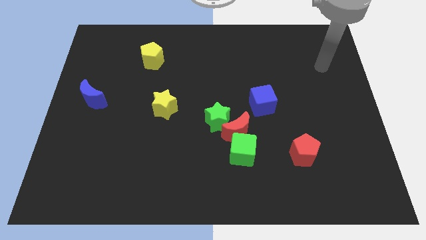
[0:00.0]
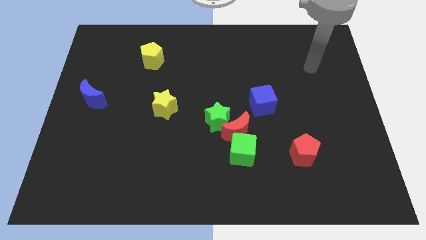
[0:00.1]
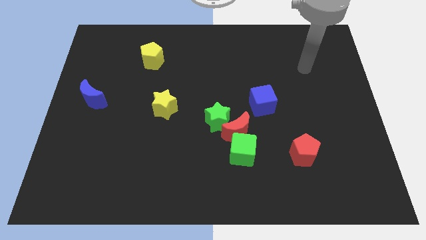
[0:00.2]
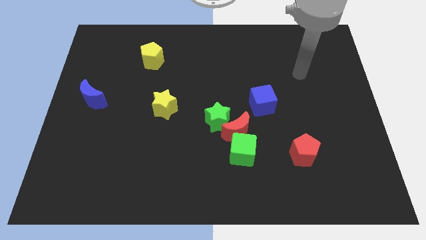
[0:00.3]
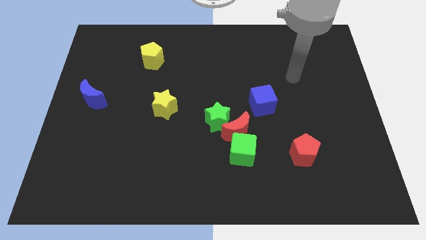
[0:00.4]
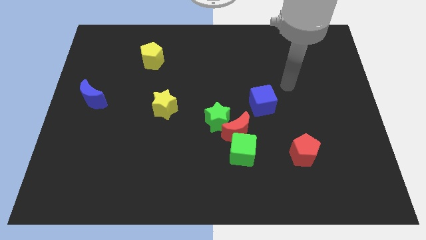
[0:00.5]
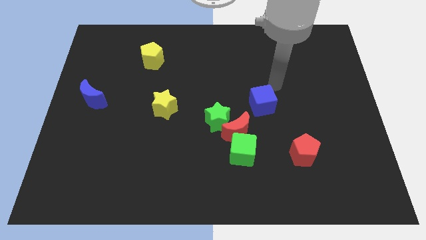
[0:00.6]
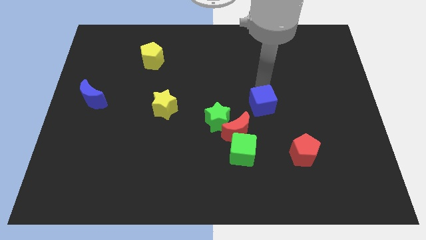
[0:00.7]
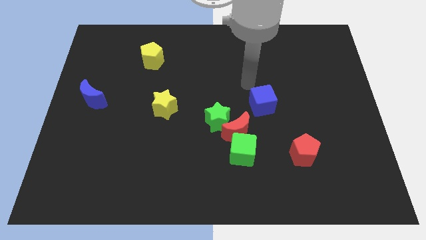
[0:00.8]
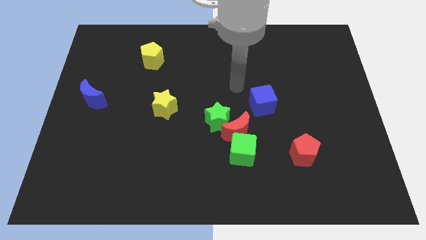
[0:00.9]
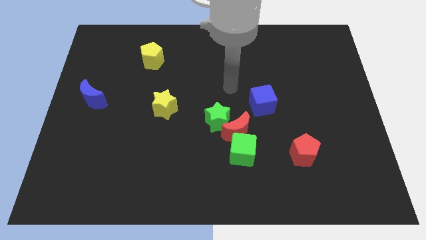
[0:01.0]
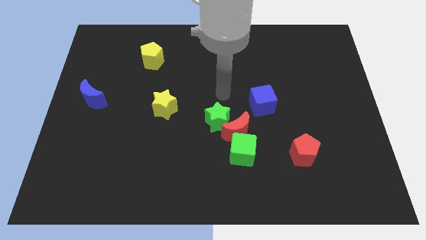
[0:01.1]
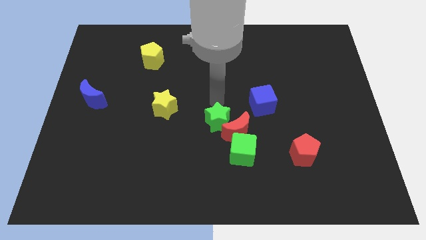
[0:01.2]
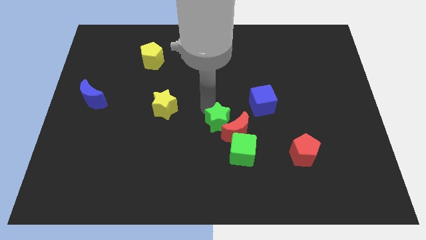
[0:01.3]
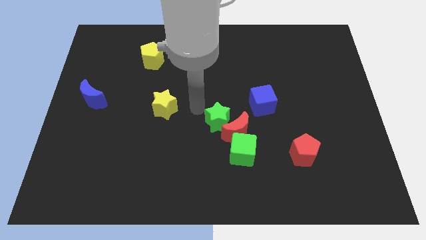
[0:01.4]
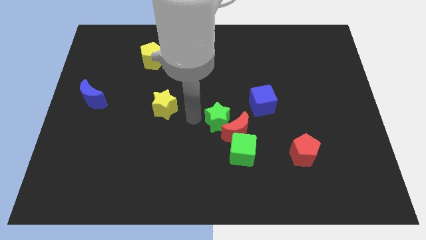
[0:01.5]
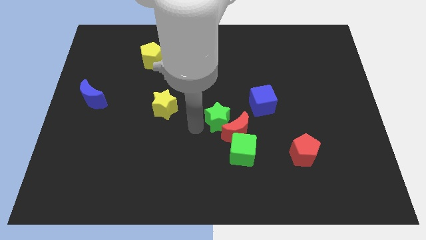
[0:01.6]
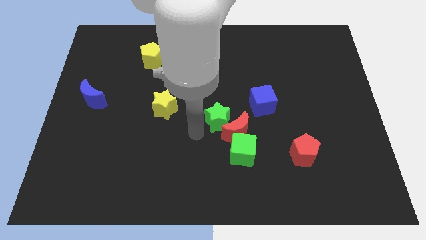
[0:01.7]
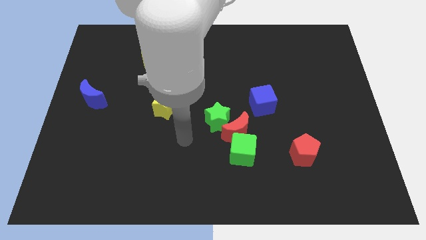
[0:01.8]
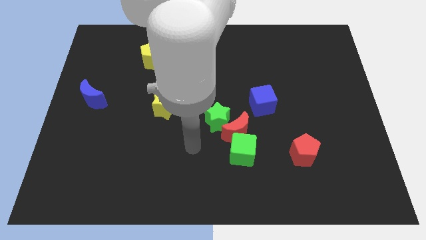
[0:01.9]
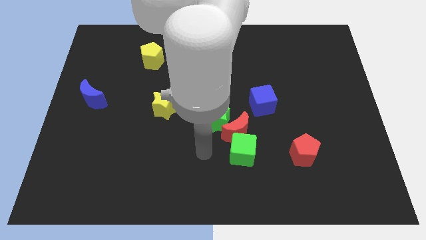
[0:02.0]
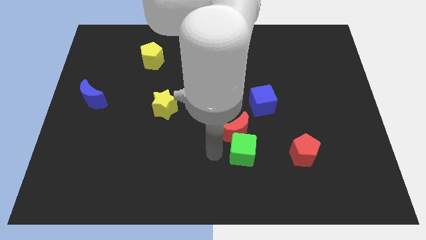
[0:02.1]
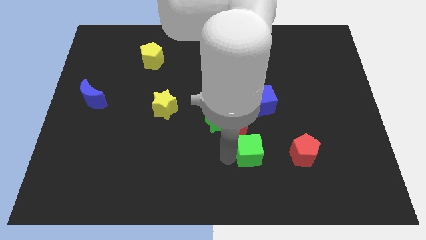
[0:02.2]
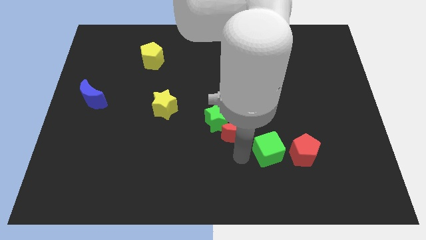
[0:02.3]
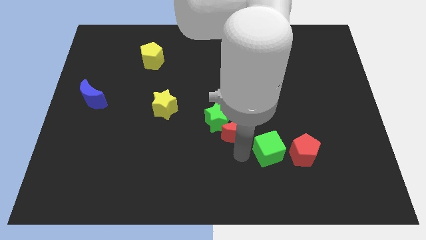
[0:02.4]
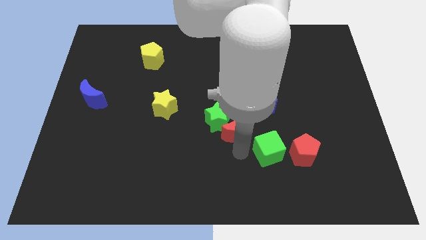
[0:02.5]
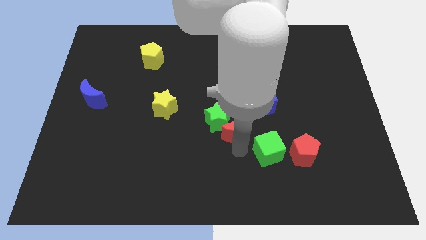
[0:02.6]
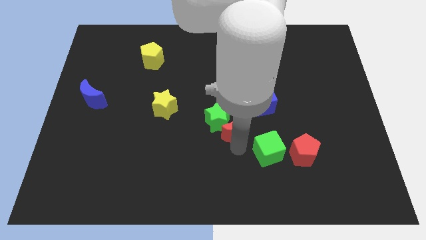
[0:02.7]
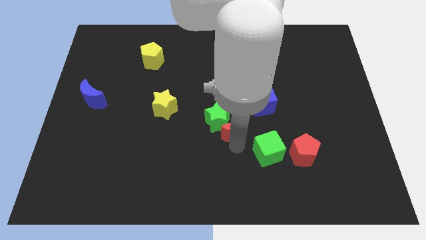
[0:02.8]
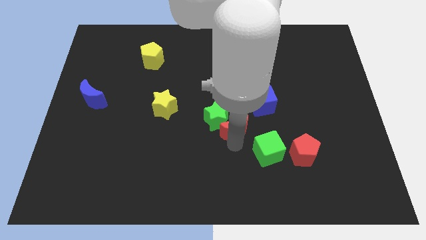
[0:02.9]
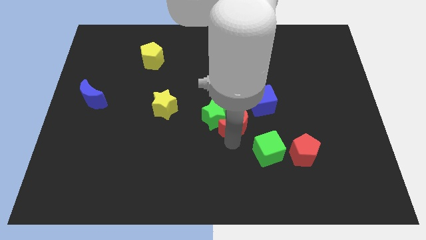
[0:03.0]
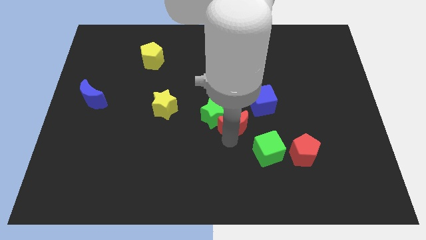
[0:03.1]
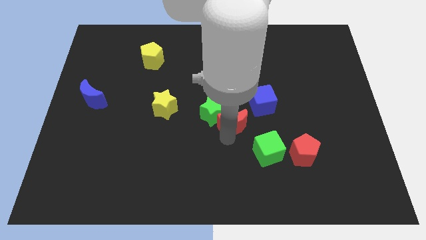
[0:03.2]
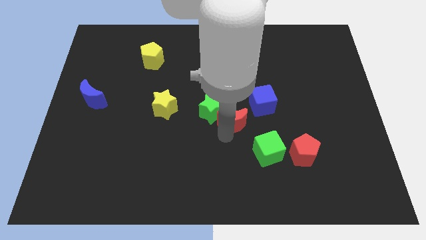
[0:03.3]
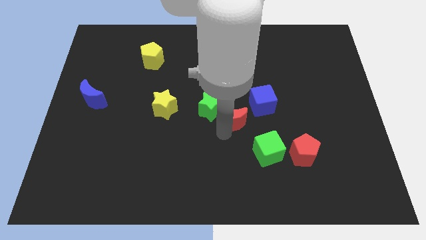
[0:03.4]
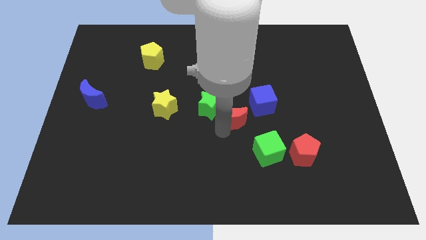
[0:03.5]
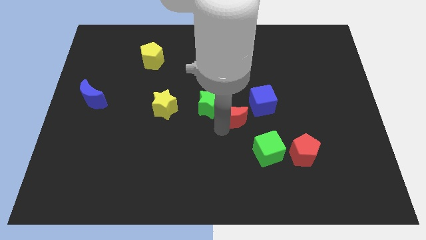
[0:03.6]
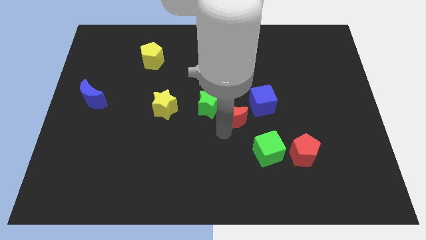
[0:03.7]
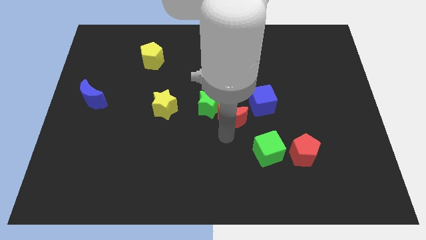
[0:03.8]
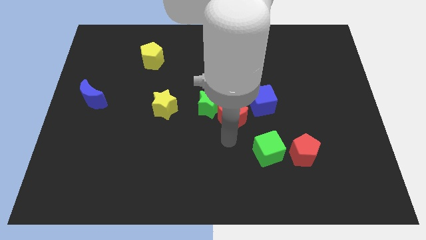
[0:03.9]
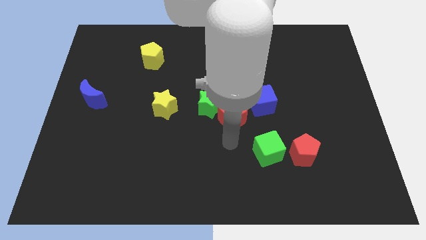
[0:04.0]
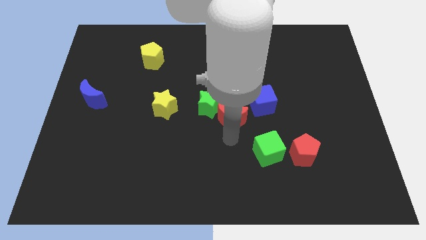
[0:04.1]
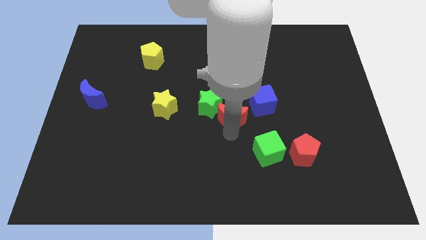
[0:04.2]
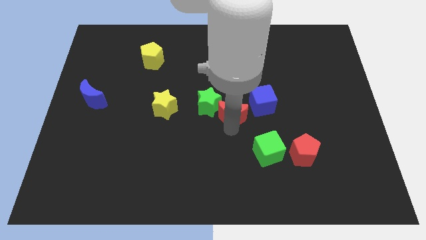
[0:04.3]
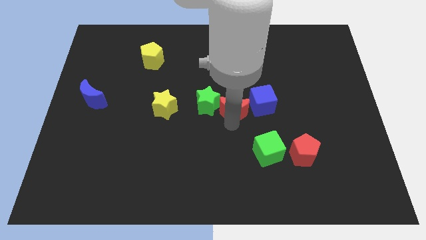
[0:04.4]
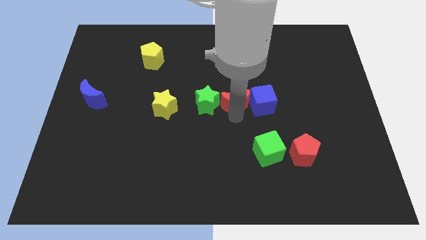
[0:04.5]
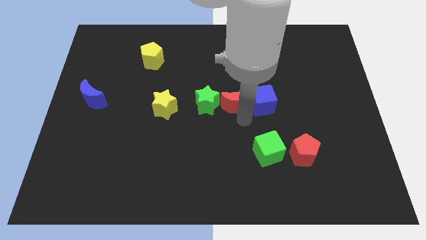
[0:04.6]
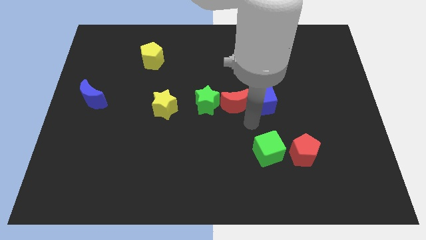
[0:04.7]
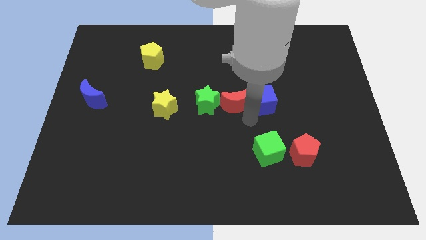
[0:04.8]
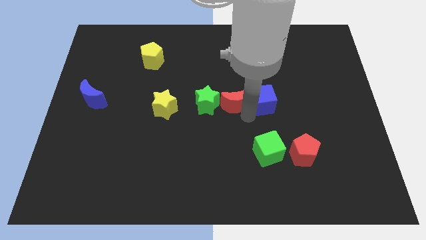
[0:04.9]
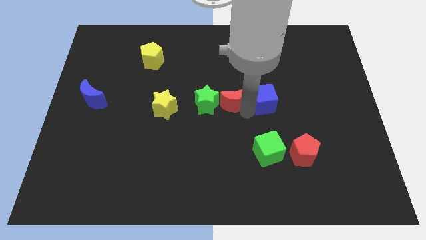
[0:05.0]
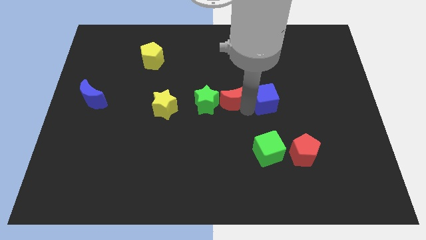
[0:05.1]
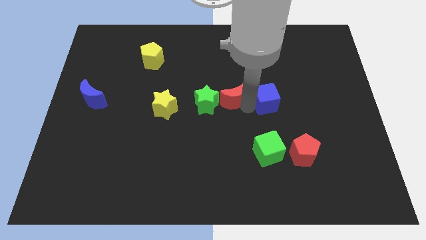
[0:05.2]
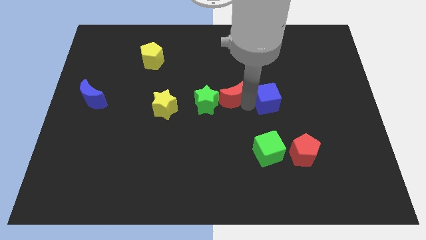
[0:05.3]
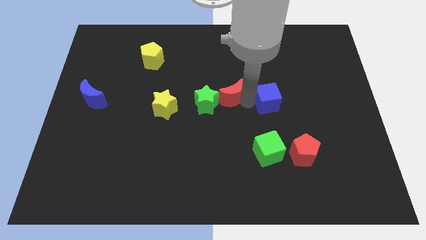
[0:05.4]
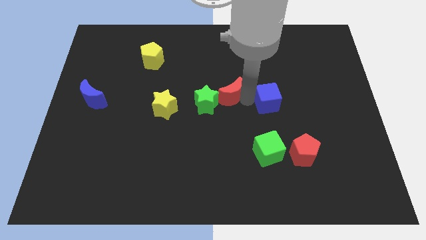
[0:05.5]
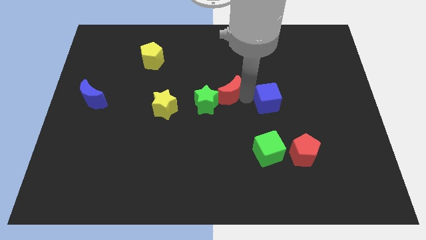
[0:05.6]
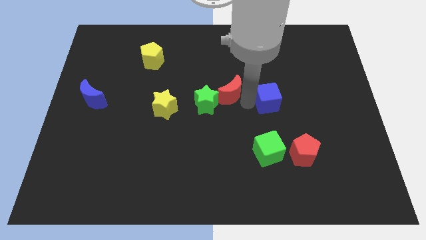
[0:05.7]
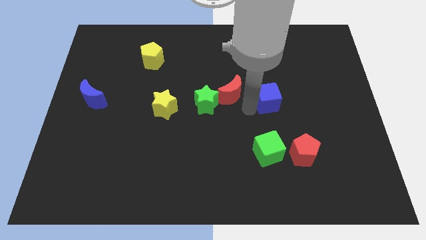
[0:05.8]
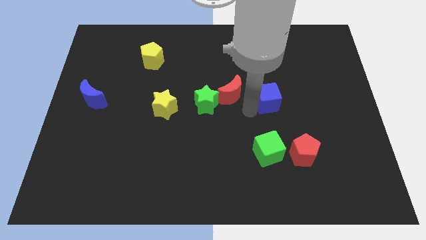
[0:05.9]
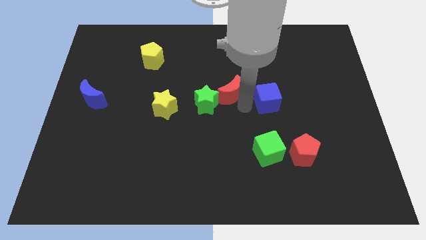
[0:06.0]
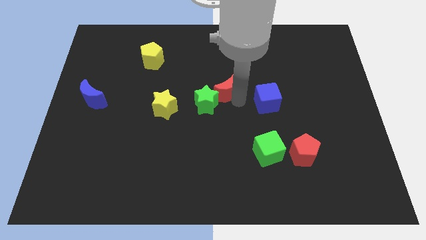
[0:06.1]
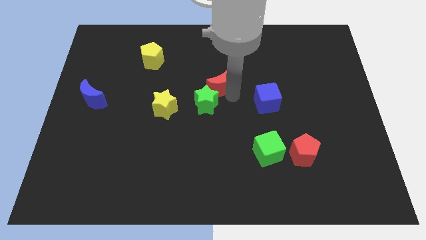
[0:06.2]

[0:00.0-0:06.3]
push the red moon to the top side of the green star

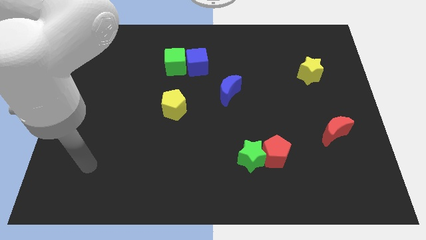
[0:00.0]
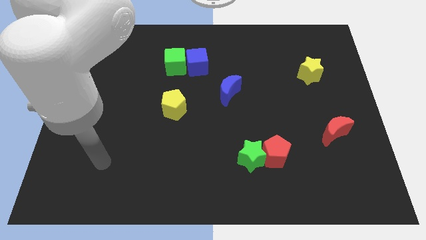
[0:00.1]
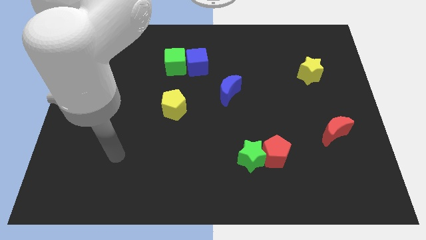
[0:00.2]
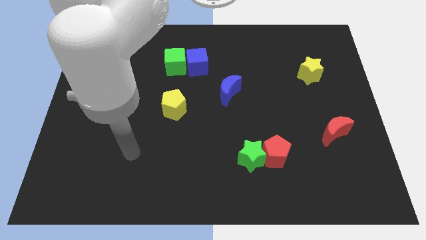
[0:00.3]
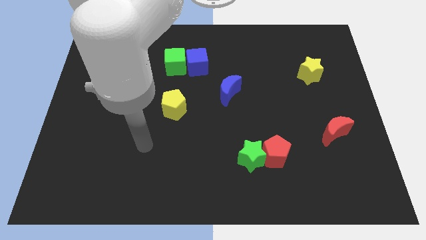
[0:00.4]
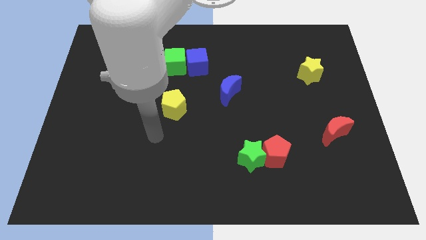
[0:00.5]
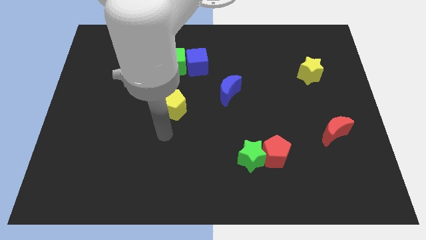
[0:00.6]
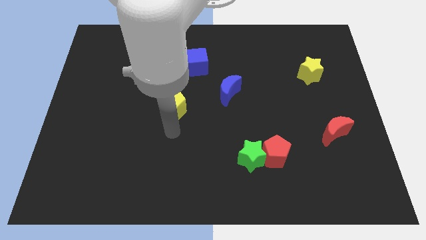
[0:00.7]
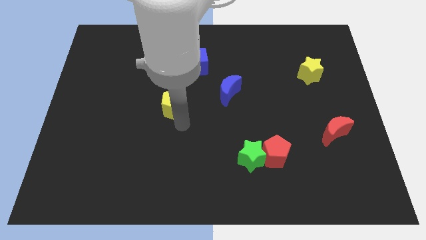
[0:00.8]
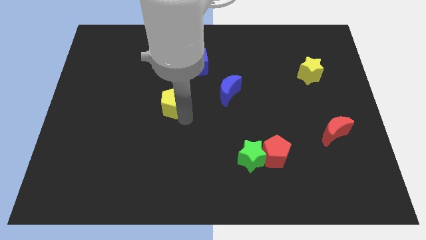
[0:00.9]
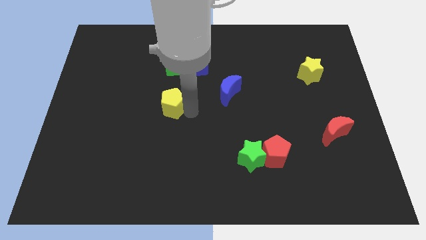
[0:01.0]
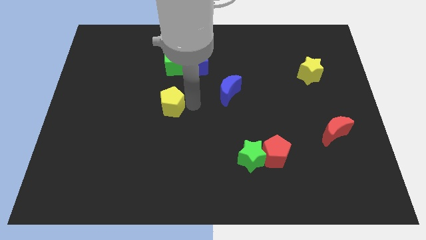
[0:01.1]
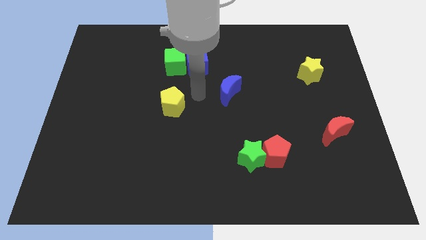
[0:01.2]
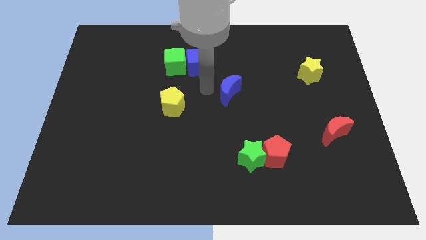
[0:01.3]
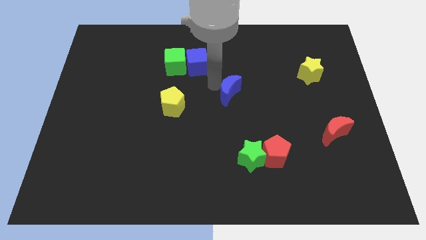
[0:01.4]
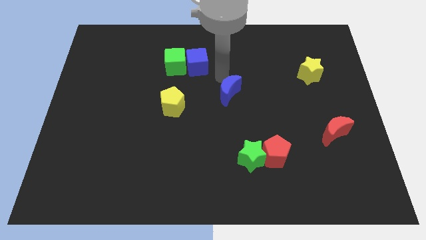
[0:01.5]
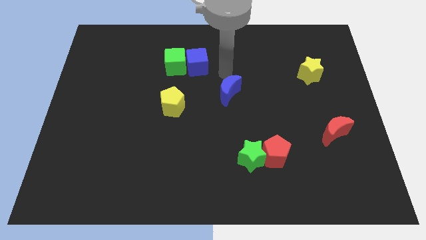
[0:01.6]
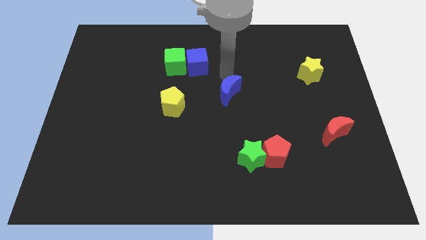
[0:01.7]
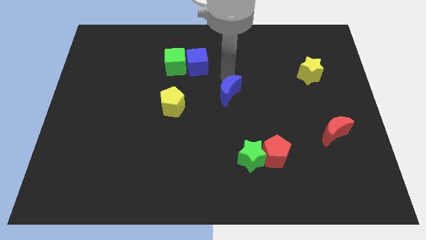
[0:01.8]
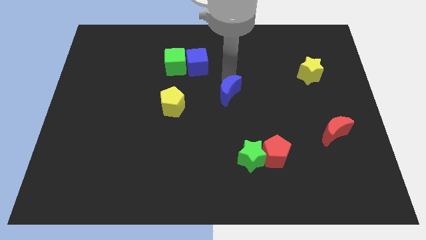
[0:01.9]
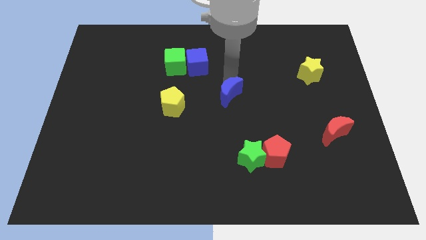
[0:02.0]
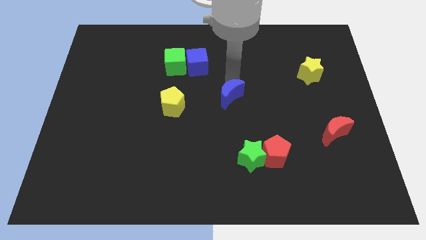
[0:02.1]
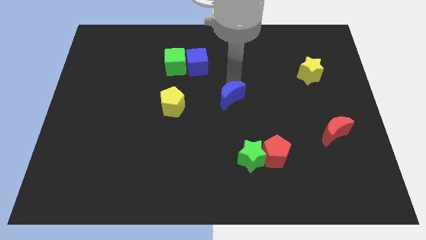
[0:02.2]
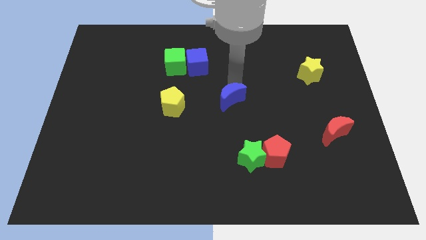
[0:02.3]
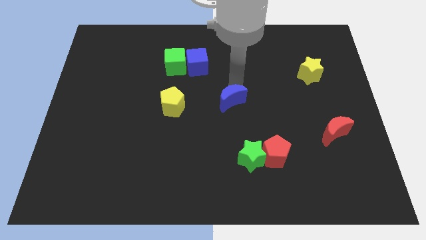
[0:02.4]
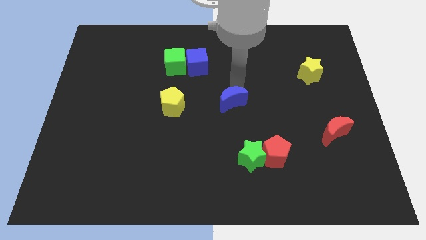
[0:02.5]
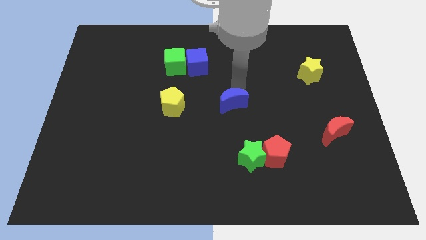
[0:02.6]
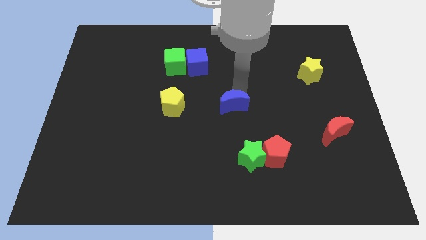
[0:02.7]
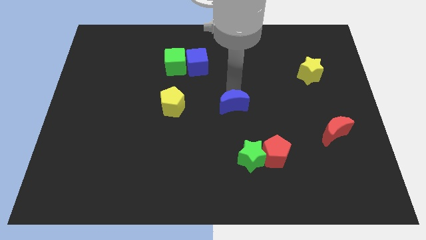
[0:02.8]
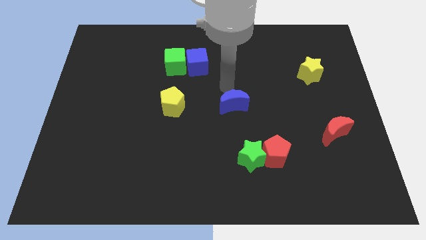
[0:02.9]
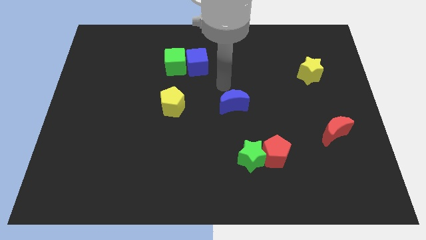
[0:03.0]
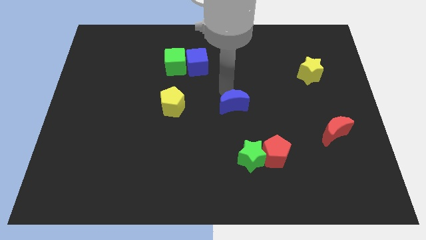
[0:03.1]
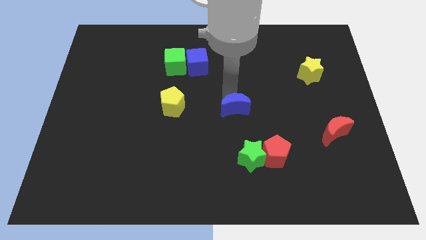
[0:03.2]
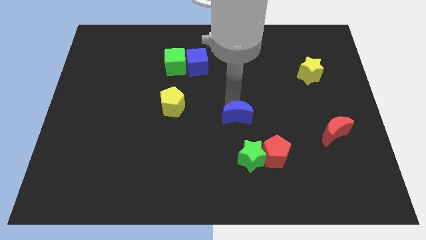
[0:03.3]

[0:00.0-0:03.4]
move the blue moon diagonally up and to the left of the red pentagon
